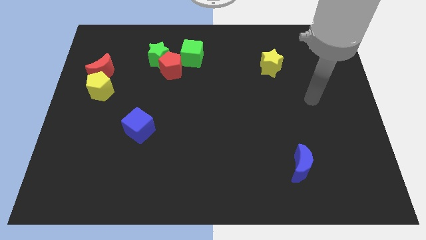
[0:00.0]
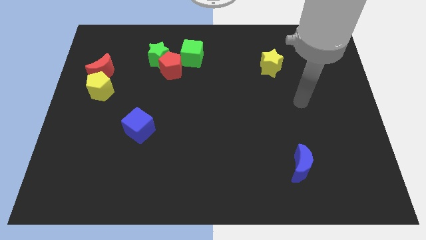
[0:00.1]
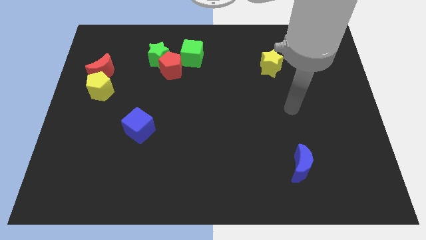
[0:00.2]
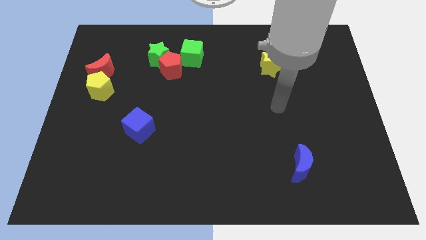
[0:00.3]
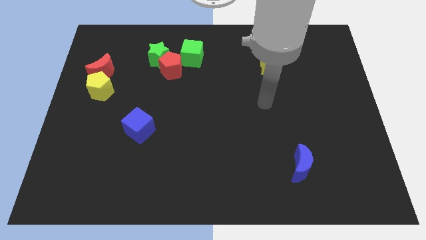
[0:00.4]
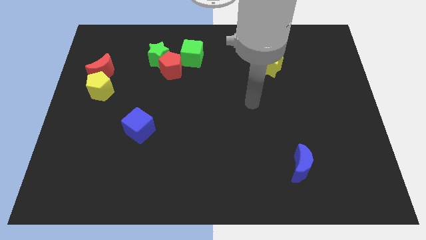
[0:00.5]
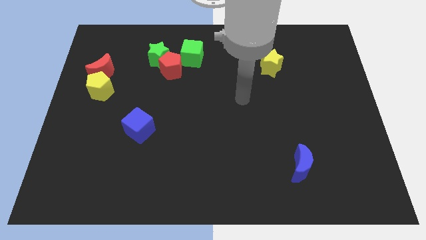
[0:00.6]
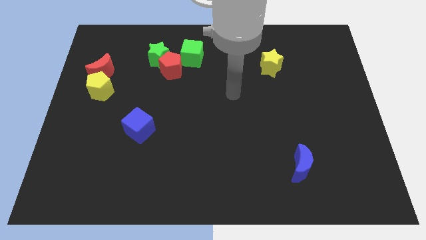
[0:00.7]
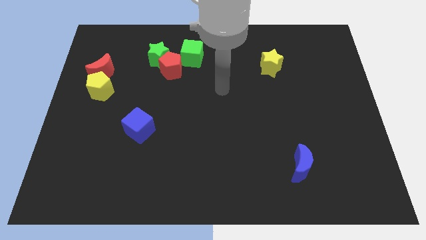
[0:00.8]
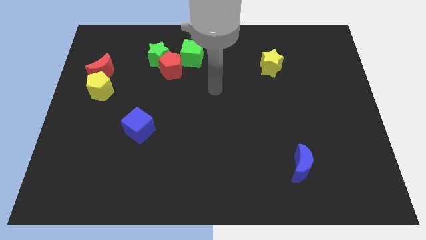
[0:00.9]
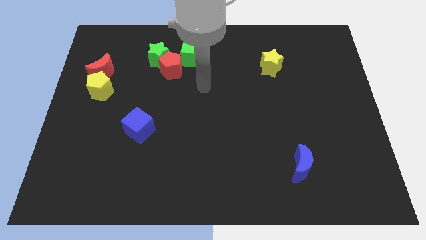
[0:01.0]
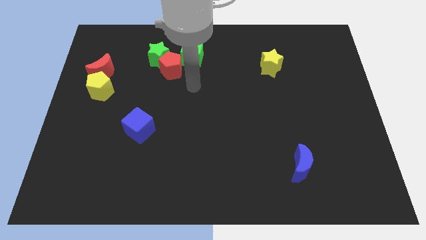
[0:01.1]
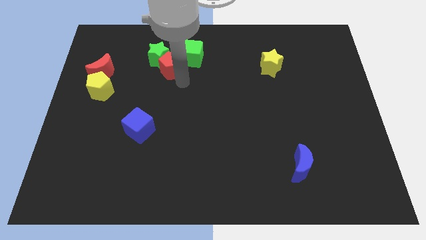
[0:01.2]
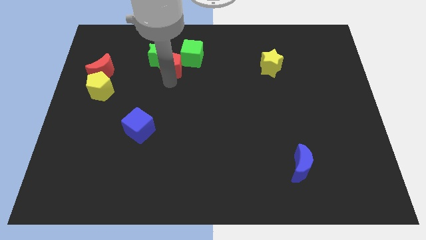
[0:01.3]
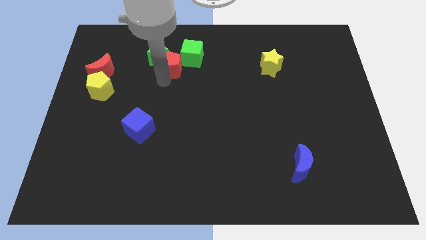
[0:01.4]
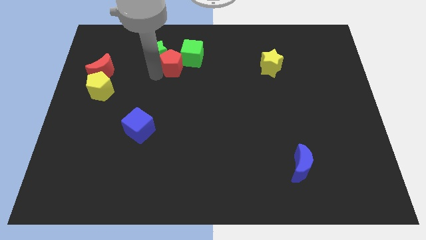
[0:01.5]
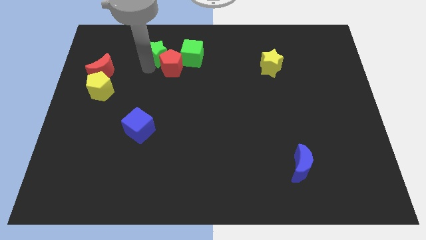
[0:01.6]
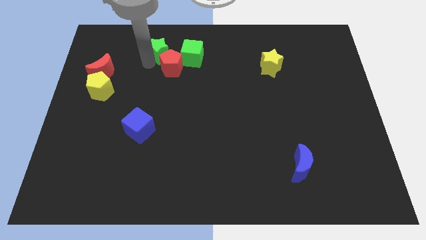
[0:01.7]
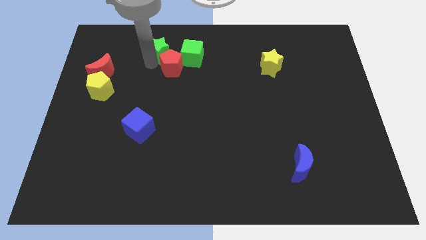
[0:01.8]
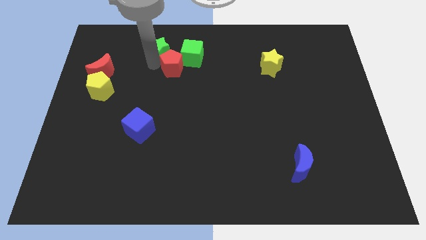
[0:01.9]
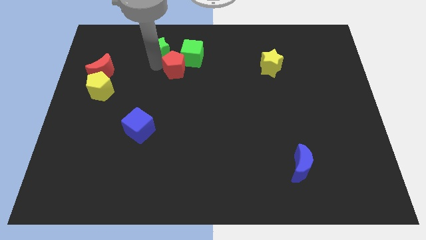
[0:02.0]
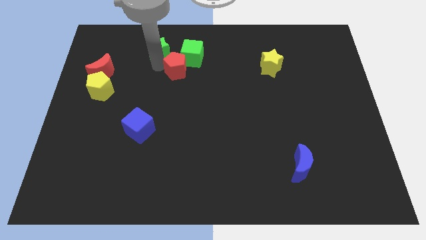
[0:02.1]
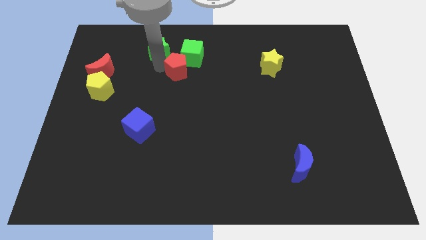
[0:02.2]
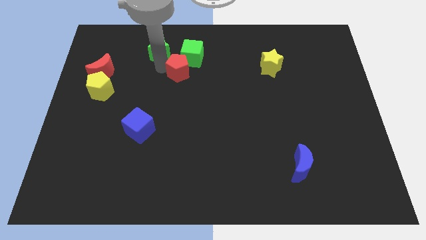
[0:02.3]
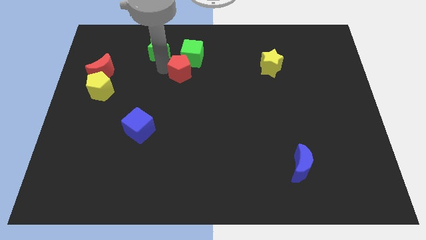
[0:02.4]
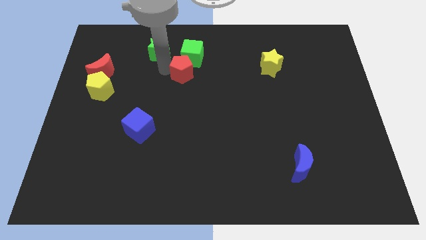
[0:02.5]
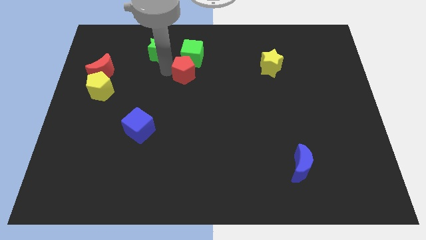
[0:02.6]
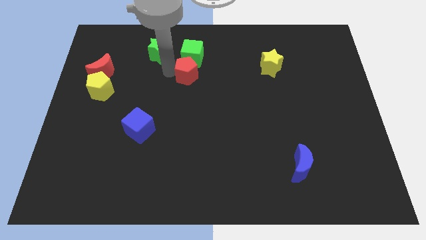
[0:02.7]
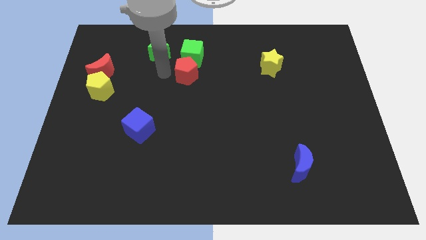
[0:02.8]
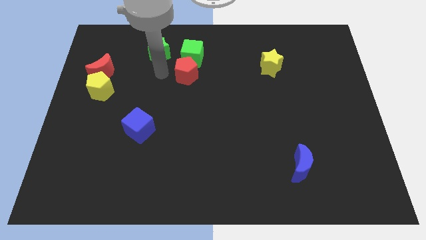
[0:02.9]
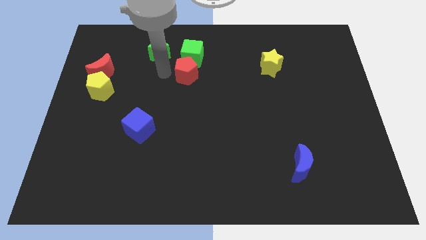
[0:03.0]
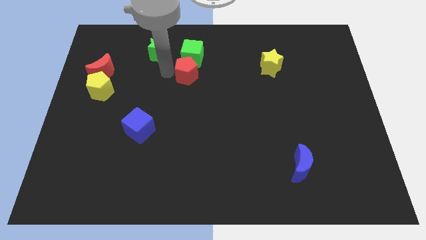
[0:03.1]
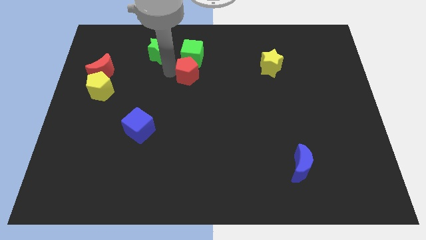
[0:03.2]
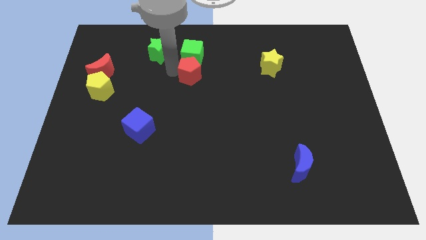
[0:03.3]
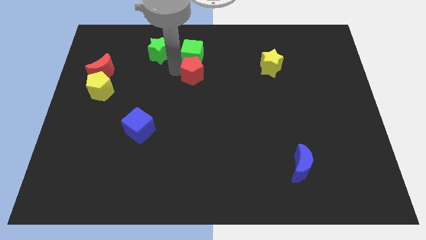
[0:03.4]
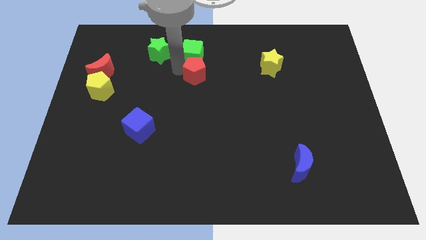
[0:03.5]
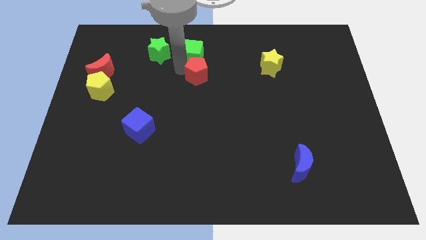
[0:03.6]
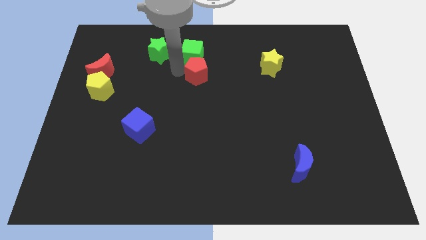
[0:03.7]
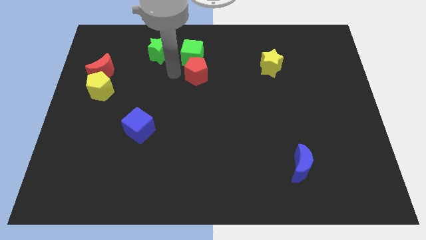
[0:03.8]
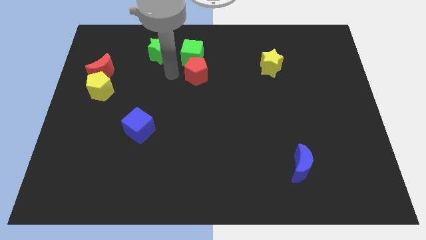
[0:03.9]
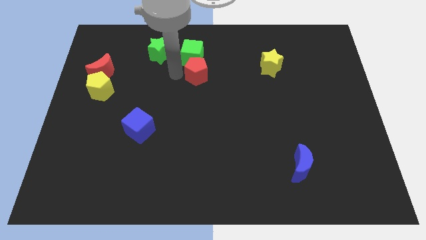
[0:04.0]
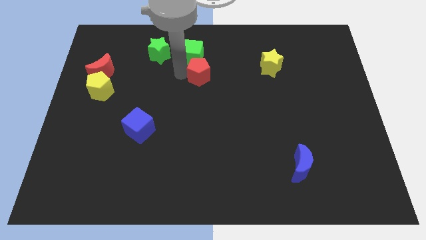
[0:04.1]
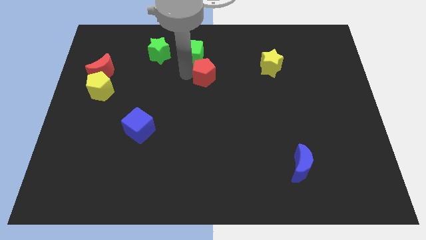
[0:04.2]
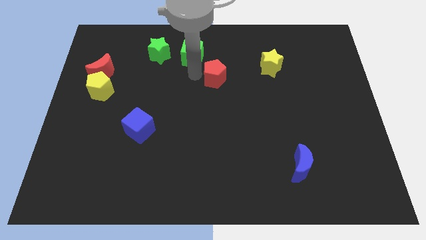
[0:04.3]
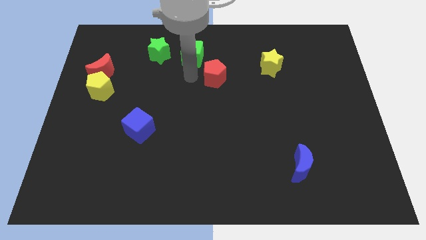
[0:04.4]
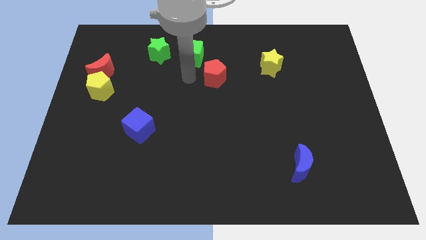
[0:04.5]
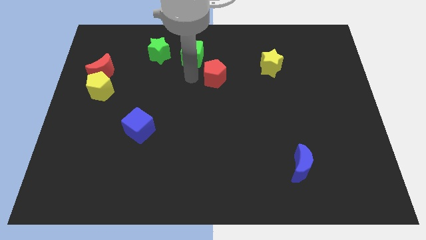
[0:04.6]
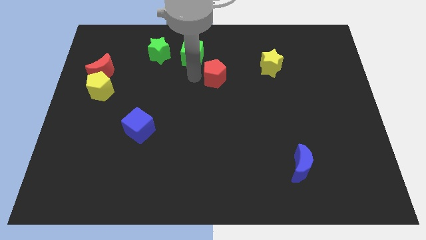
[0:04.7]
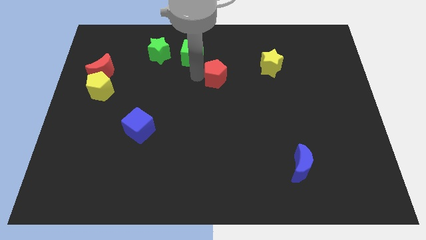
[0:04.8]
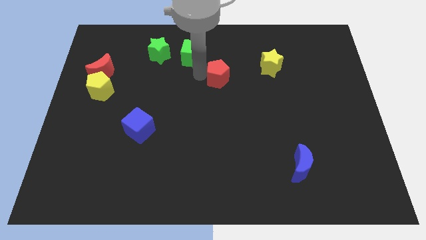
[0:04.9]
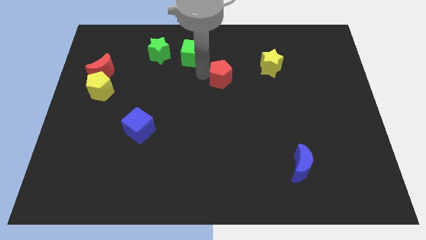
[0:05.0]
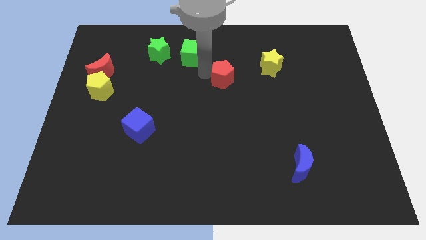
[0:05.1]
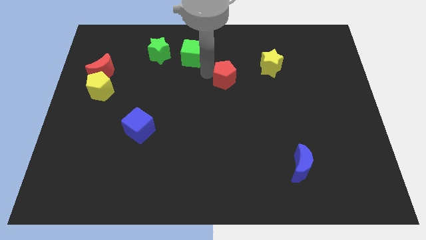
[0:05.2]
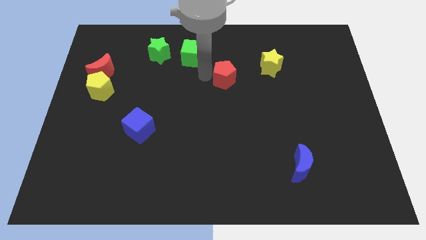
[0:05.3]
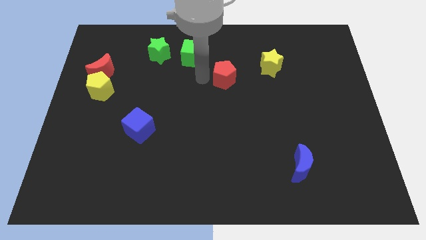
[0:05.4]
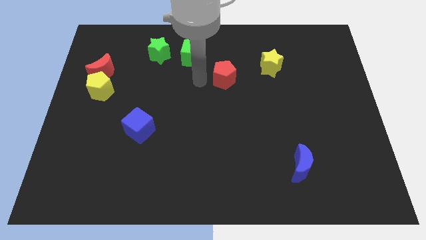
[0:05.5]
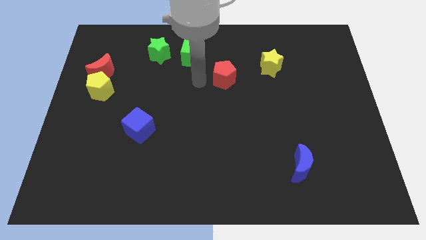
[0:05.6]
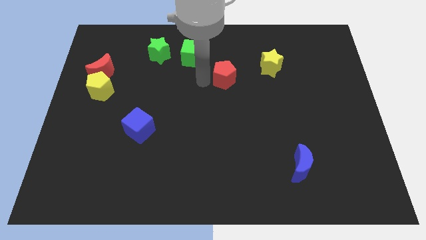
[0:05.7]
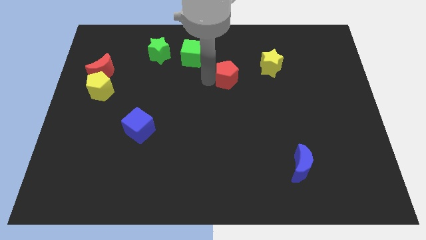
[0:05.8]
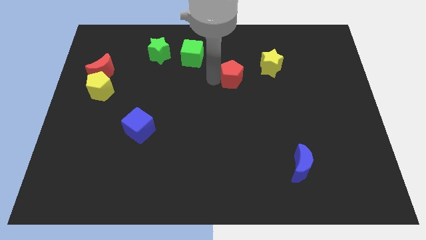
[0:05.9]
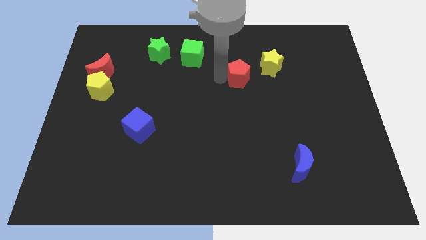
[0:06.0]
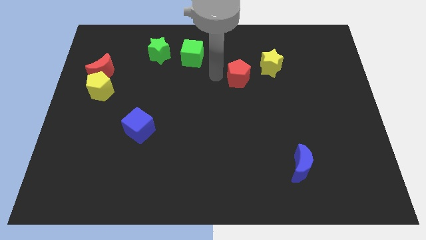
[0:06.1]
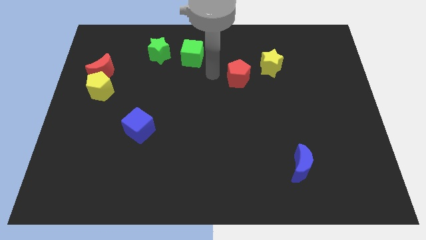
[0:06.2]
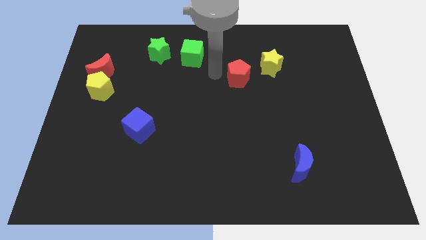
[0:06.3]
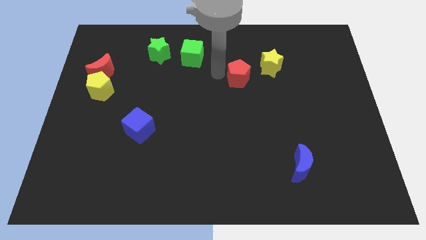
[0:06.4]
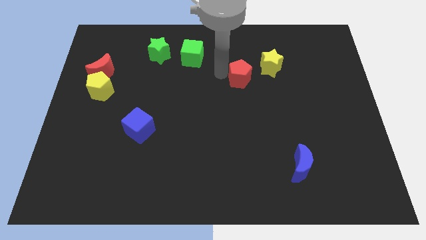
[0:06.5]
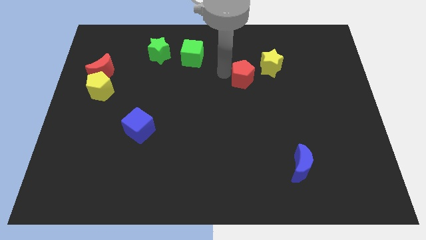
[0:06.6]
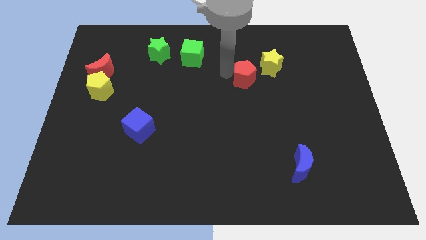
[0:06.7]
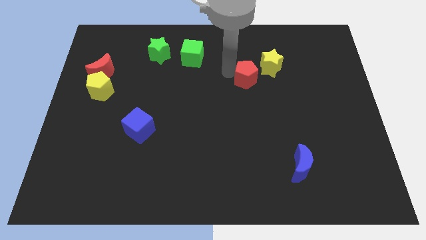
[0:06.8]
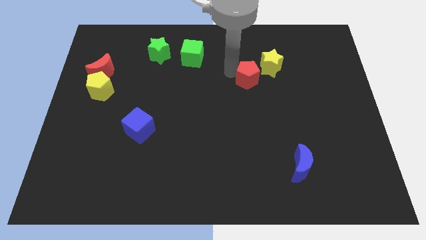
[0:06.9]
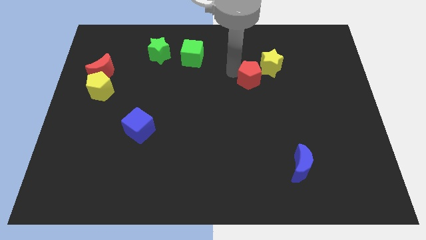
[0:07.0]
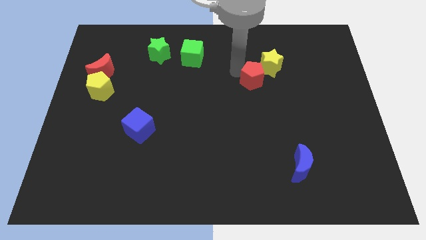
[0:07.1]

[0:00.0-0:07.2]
slide the red pentagon right

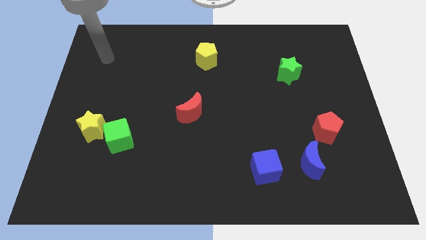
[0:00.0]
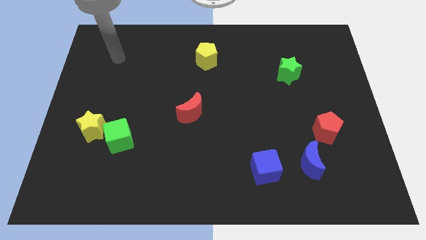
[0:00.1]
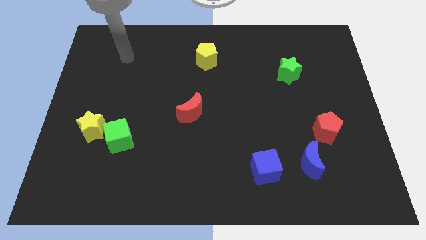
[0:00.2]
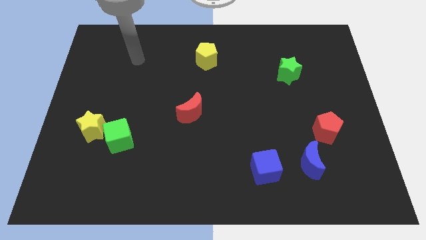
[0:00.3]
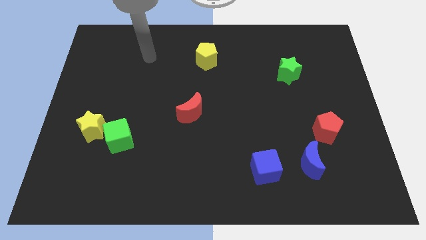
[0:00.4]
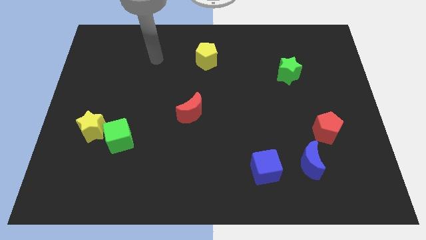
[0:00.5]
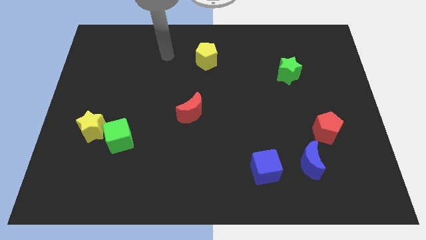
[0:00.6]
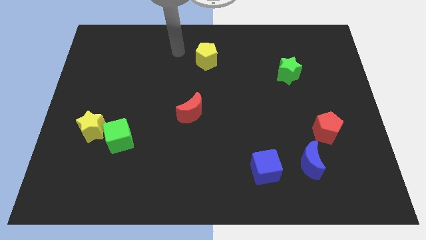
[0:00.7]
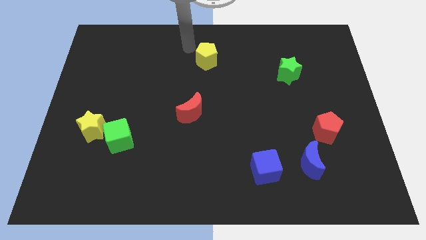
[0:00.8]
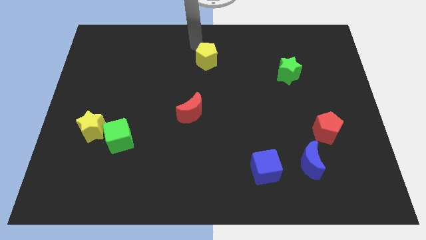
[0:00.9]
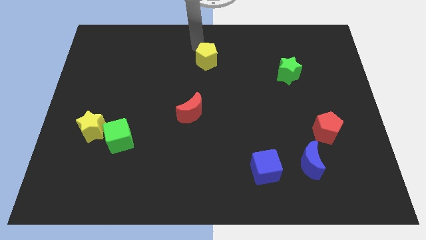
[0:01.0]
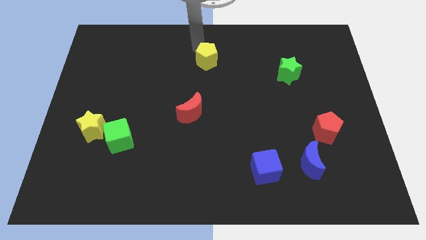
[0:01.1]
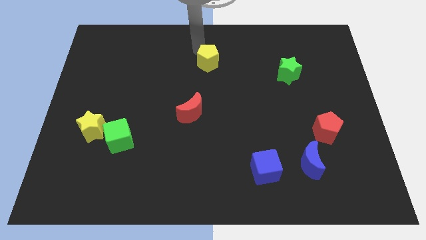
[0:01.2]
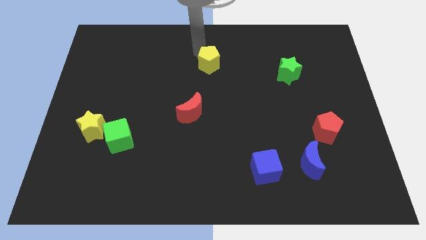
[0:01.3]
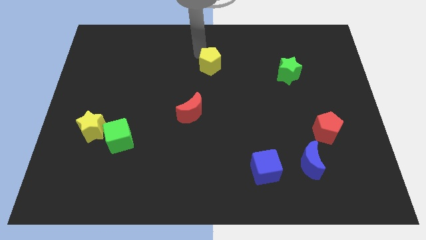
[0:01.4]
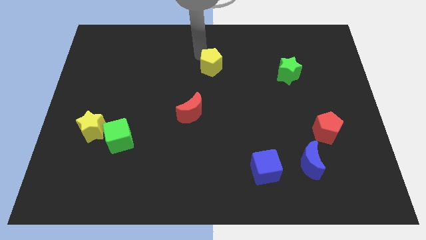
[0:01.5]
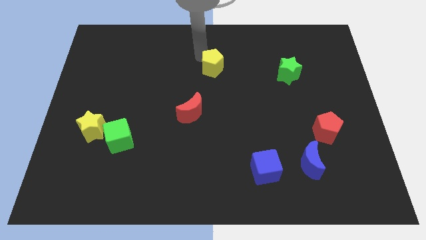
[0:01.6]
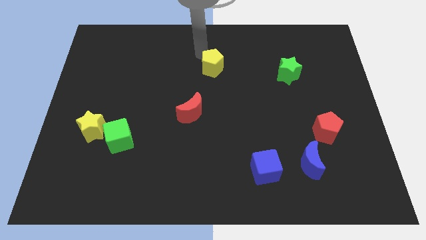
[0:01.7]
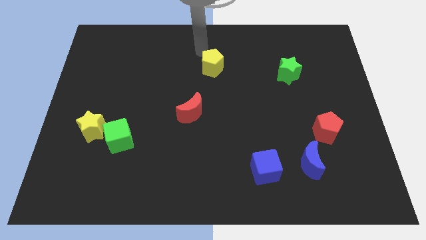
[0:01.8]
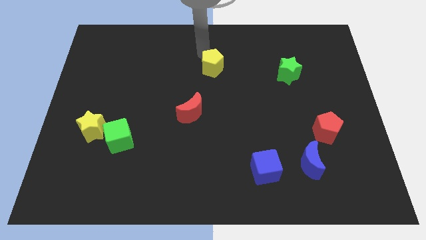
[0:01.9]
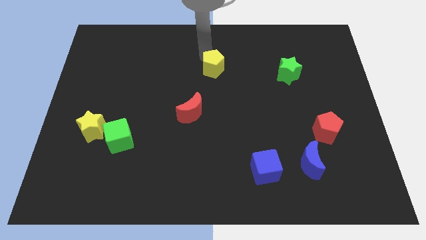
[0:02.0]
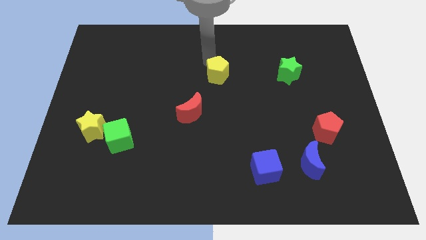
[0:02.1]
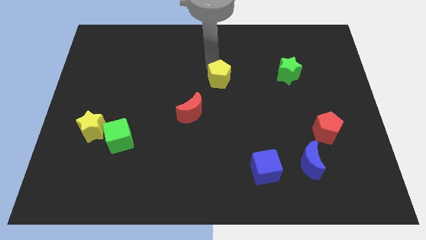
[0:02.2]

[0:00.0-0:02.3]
slightly slide the yellow pentagon downwards and then right
